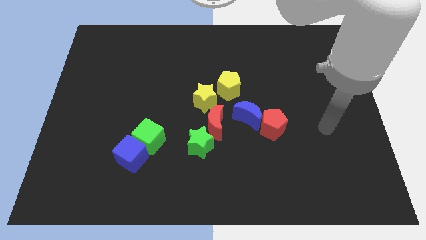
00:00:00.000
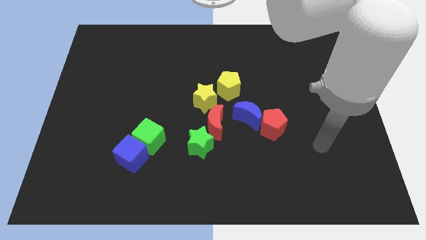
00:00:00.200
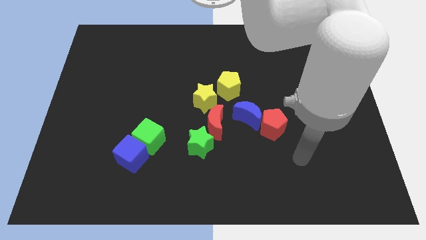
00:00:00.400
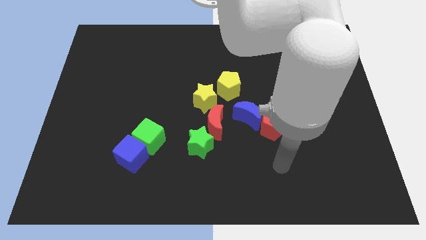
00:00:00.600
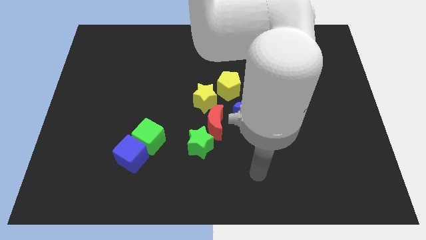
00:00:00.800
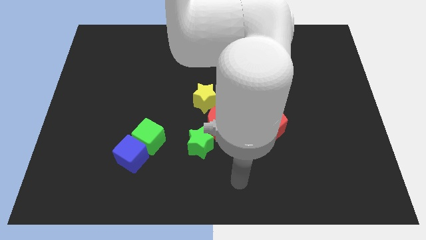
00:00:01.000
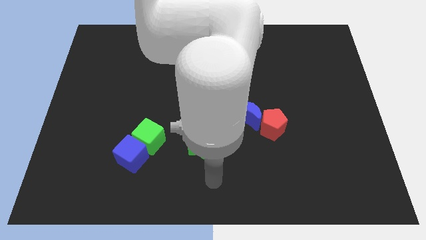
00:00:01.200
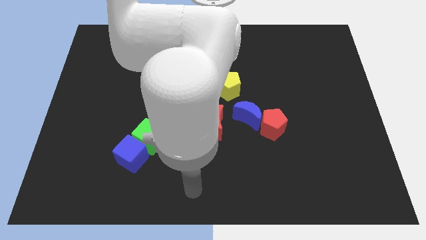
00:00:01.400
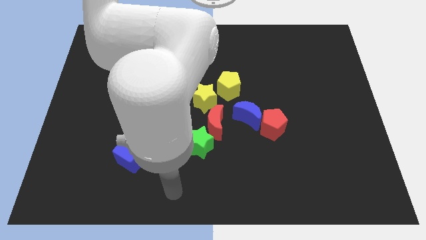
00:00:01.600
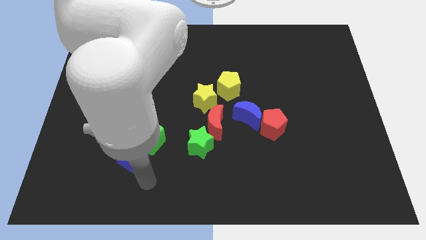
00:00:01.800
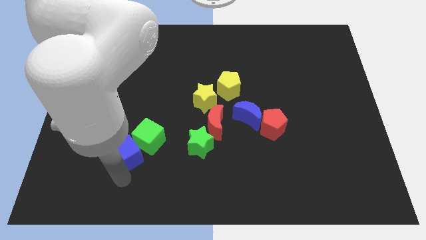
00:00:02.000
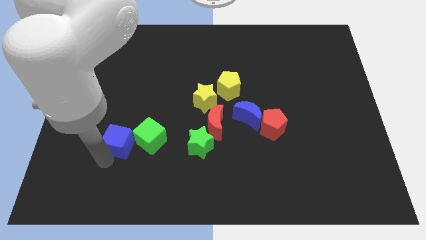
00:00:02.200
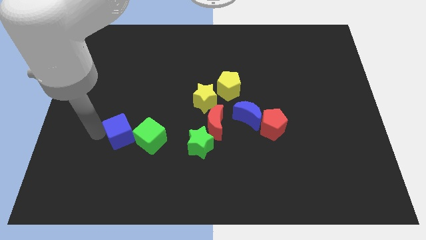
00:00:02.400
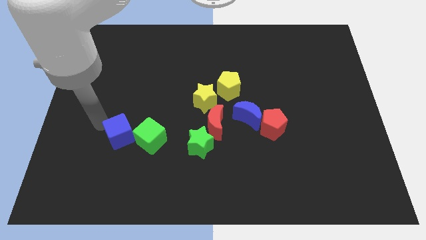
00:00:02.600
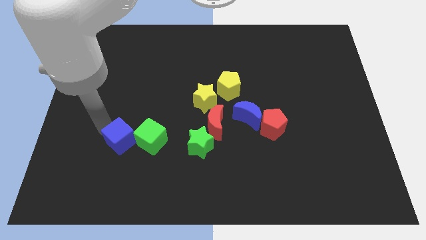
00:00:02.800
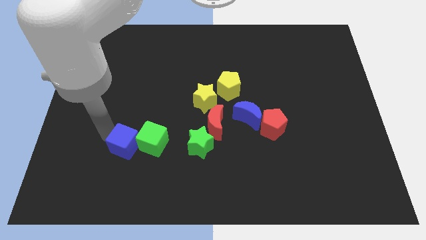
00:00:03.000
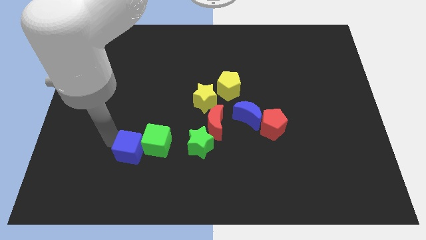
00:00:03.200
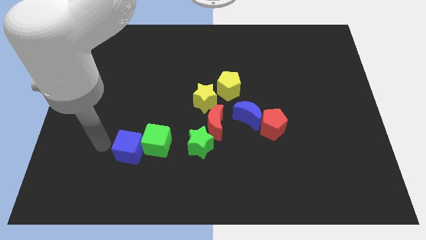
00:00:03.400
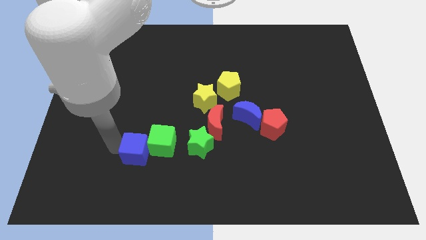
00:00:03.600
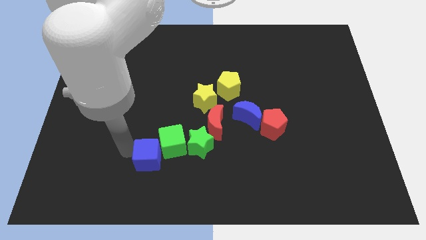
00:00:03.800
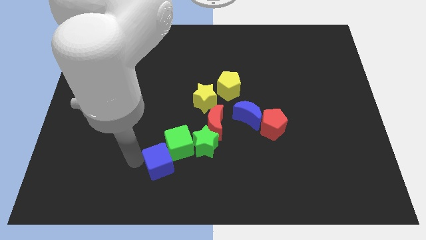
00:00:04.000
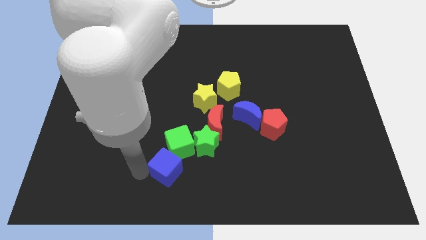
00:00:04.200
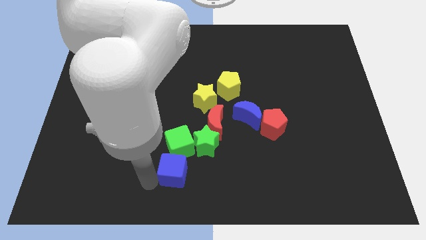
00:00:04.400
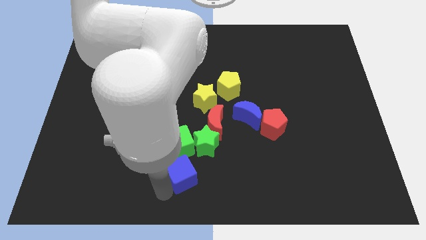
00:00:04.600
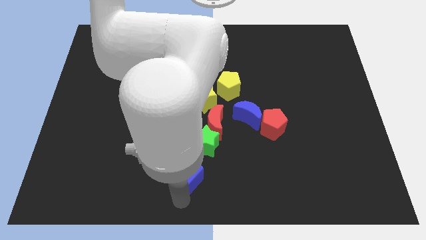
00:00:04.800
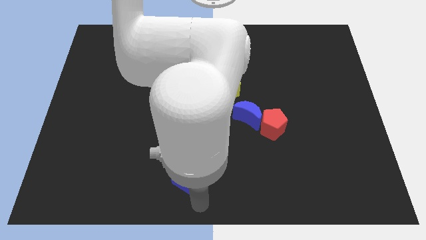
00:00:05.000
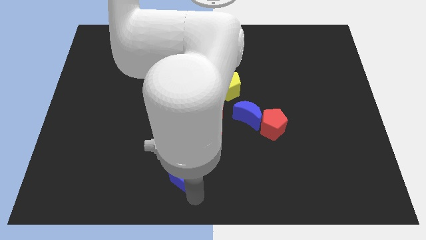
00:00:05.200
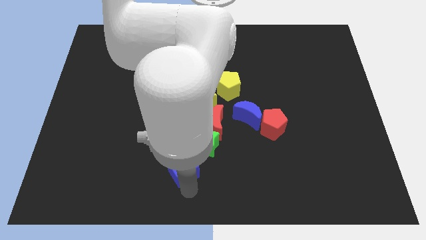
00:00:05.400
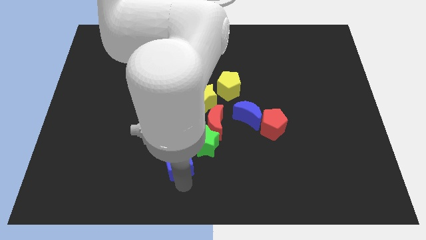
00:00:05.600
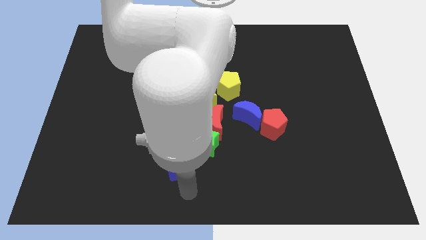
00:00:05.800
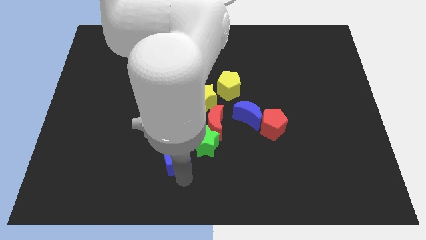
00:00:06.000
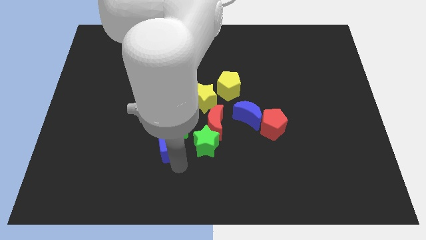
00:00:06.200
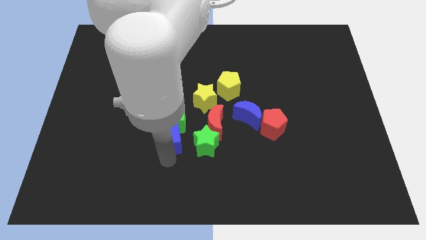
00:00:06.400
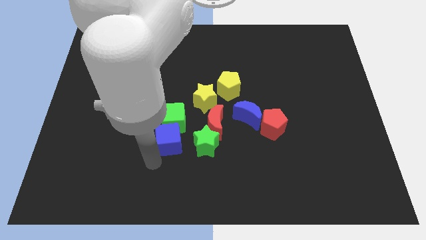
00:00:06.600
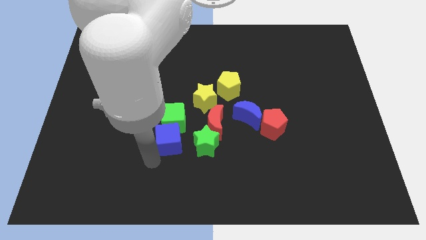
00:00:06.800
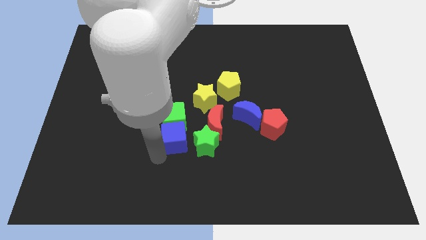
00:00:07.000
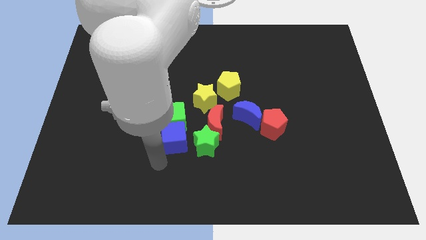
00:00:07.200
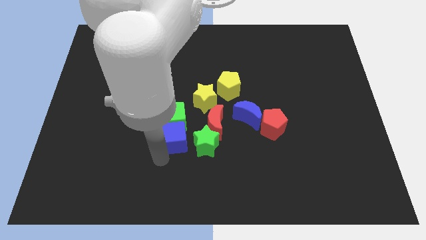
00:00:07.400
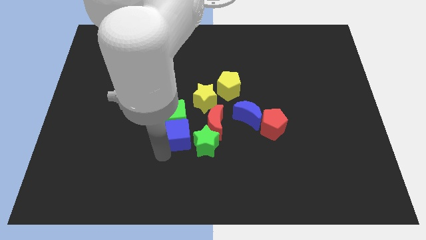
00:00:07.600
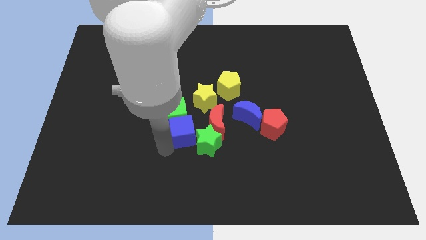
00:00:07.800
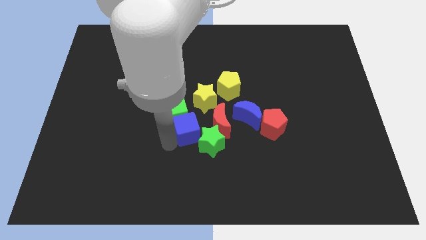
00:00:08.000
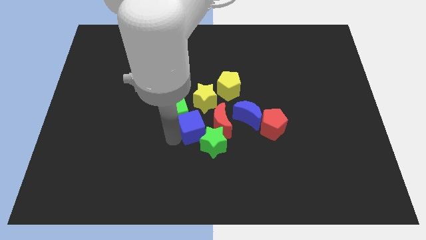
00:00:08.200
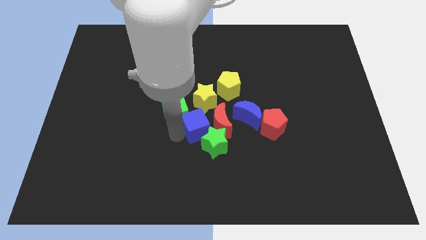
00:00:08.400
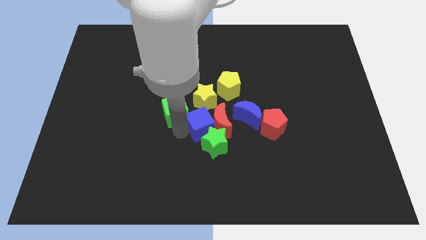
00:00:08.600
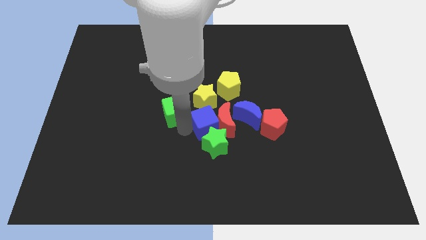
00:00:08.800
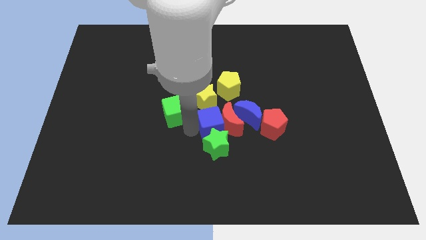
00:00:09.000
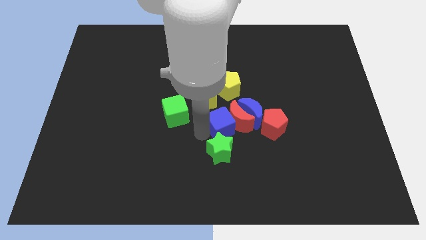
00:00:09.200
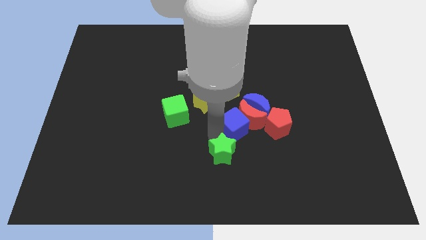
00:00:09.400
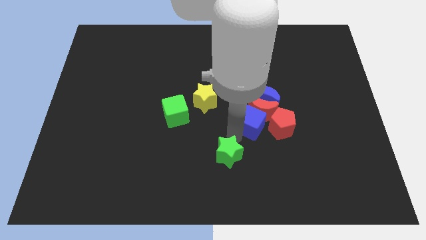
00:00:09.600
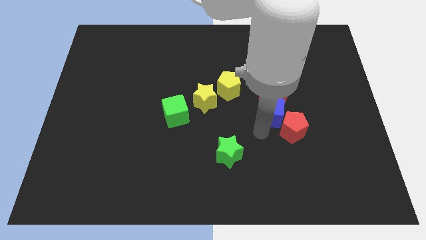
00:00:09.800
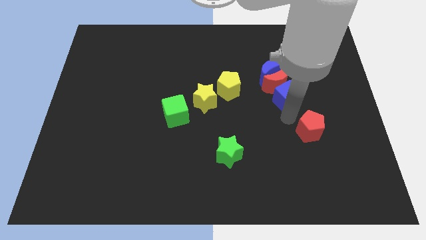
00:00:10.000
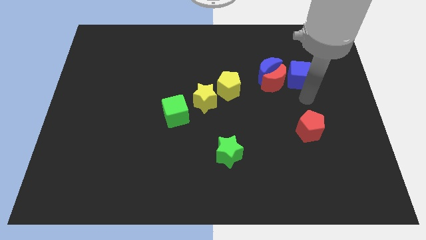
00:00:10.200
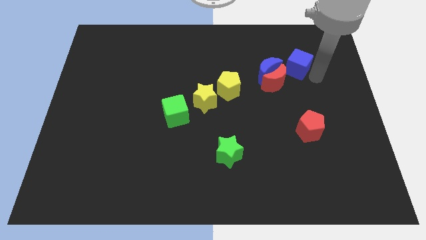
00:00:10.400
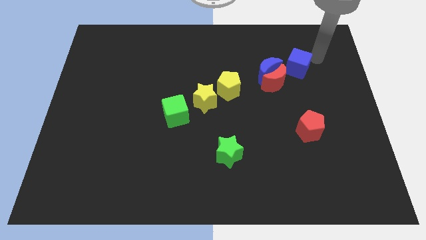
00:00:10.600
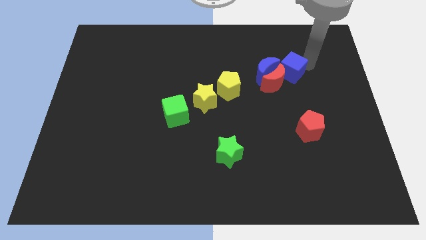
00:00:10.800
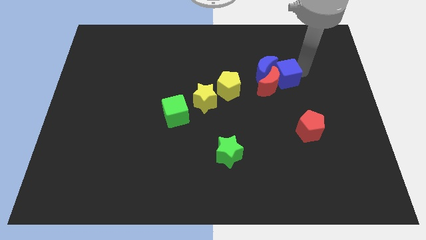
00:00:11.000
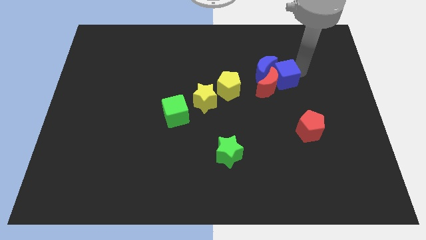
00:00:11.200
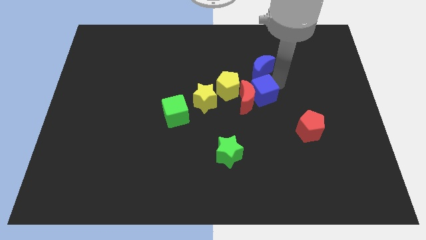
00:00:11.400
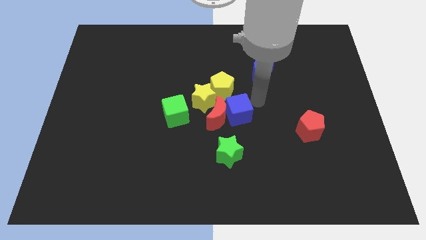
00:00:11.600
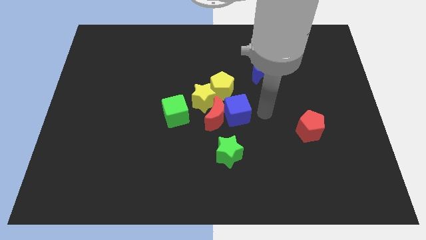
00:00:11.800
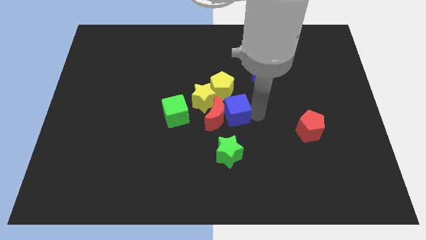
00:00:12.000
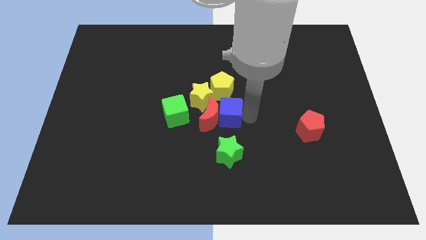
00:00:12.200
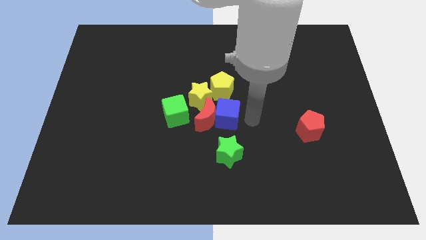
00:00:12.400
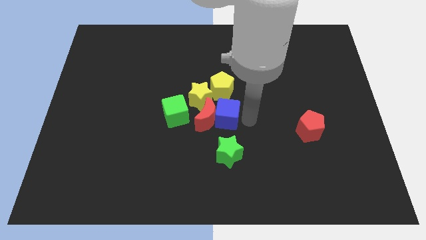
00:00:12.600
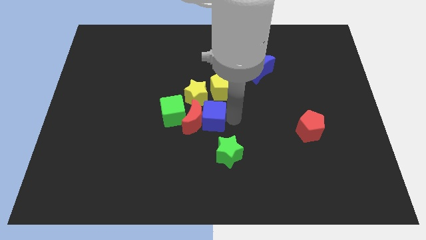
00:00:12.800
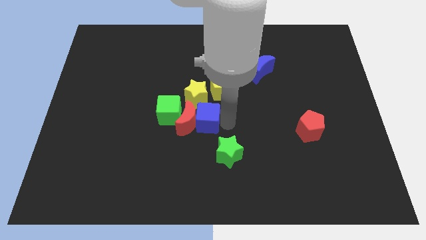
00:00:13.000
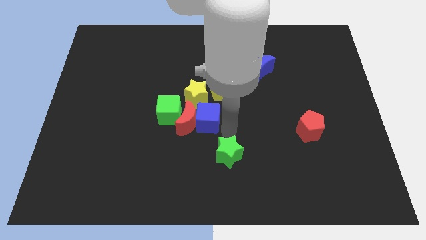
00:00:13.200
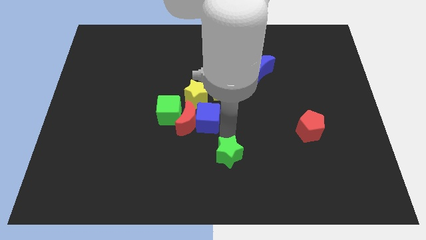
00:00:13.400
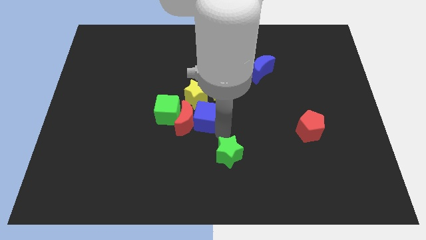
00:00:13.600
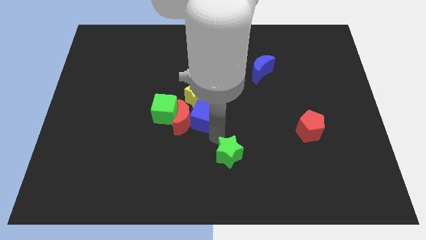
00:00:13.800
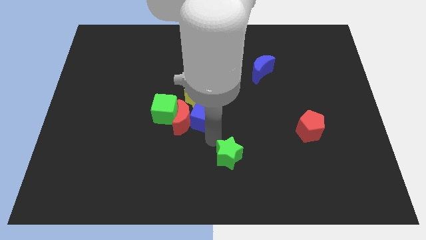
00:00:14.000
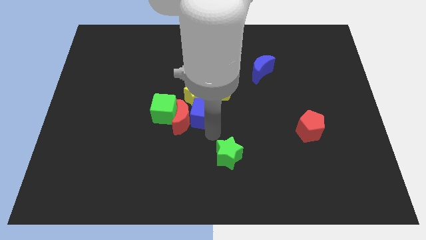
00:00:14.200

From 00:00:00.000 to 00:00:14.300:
push the blue cube towards the yellow star
